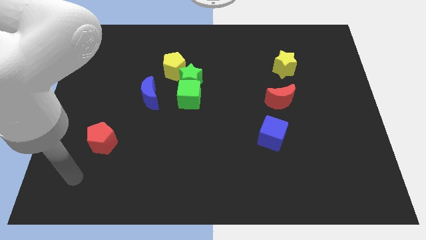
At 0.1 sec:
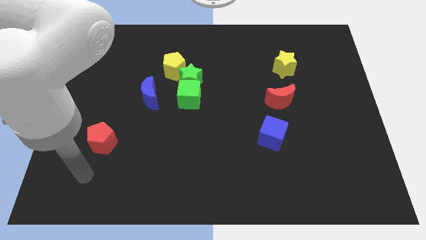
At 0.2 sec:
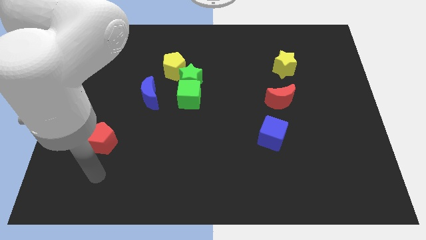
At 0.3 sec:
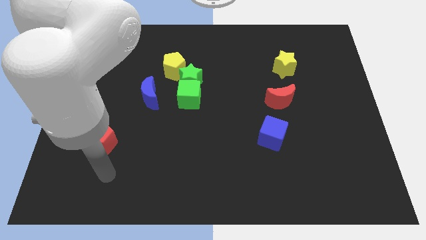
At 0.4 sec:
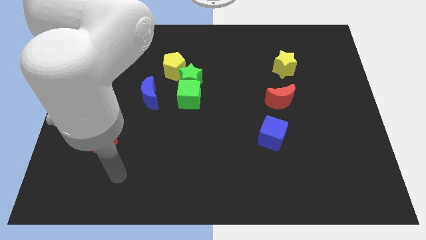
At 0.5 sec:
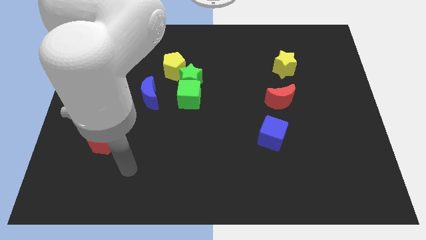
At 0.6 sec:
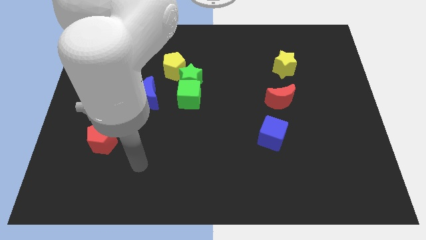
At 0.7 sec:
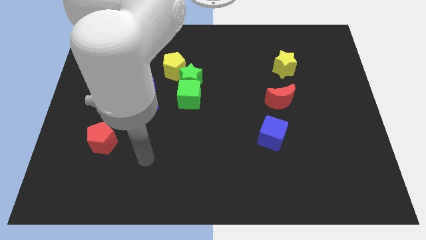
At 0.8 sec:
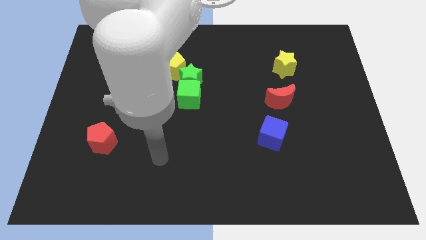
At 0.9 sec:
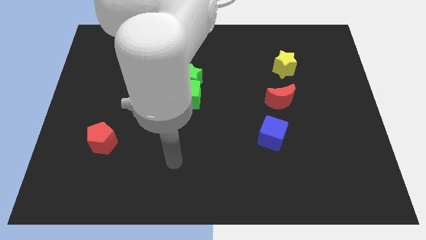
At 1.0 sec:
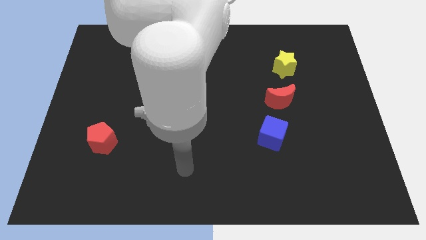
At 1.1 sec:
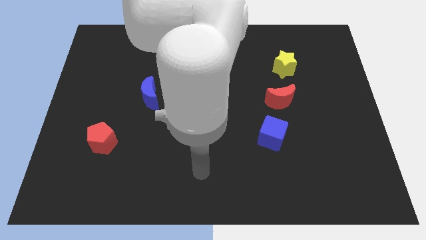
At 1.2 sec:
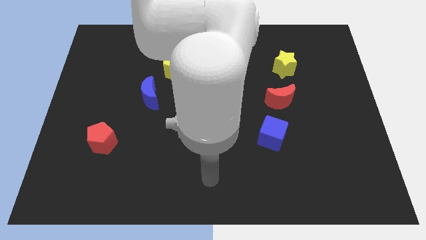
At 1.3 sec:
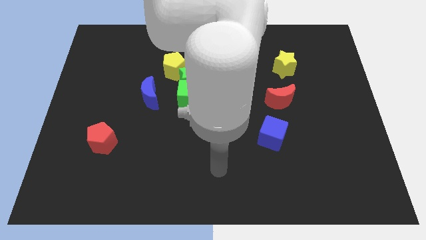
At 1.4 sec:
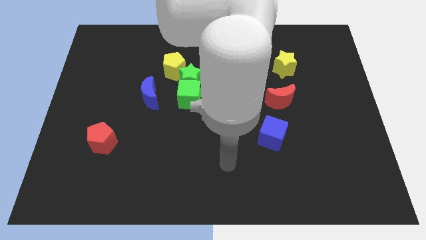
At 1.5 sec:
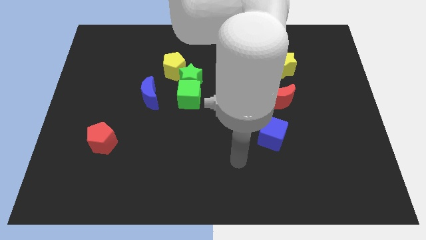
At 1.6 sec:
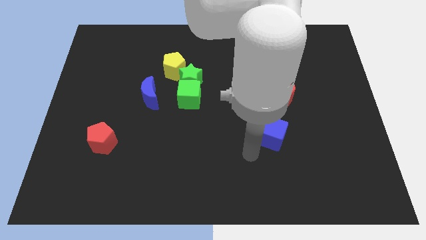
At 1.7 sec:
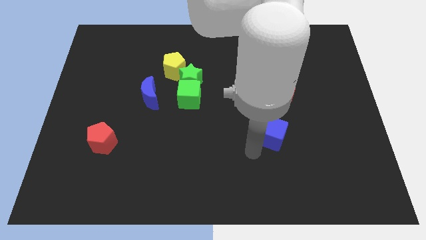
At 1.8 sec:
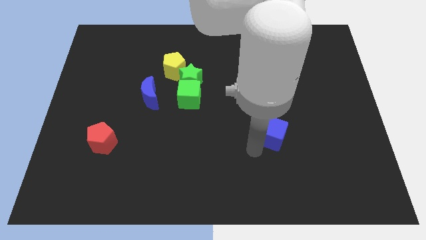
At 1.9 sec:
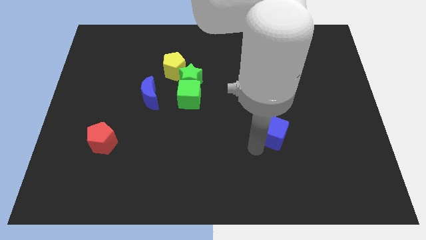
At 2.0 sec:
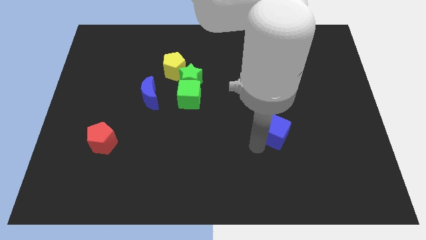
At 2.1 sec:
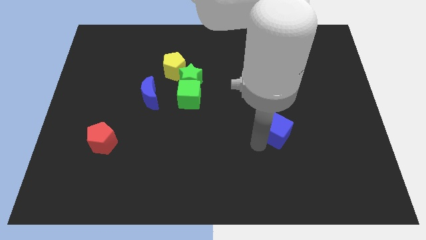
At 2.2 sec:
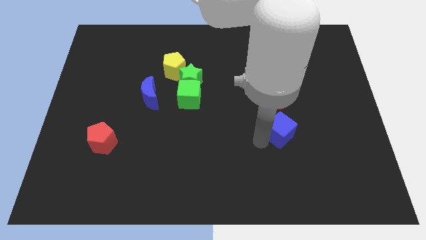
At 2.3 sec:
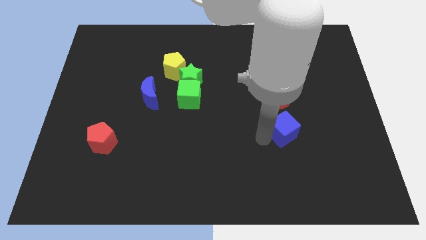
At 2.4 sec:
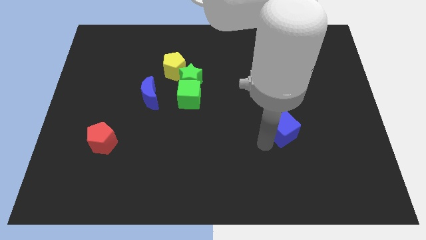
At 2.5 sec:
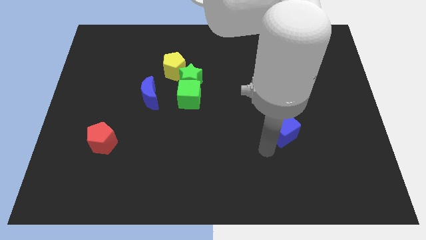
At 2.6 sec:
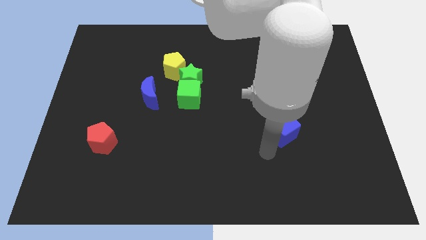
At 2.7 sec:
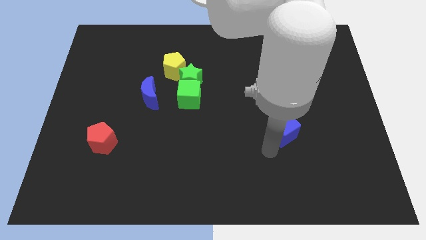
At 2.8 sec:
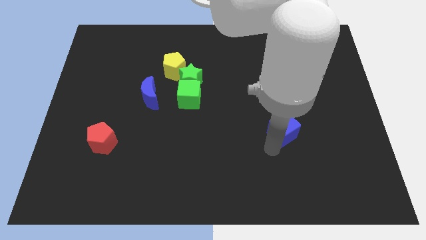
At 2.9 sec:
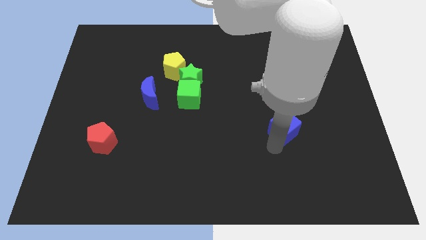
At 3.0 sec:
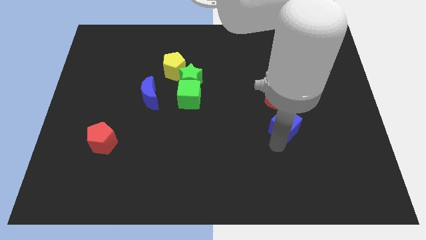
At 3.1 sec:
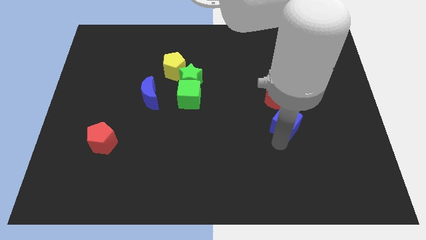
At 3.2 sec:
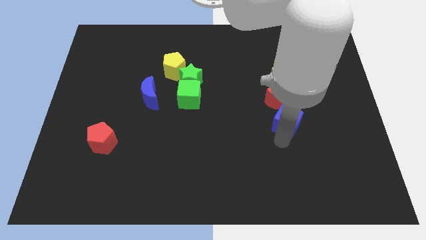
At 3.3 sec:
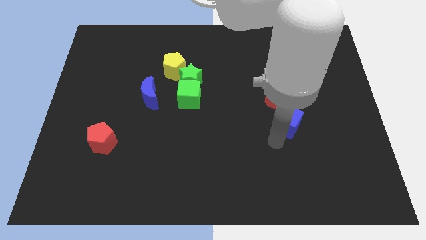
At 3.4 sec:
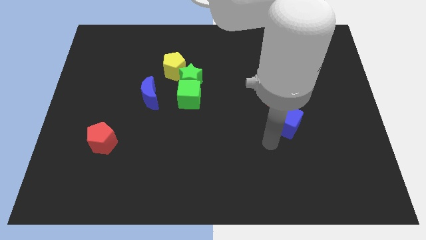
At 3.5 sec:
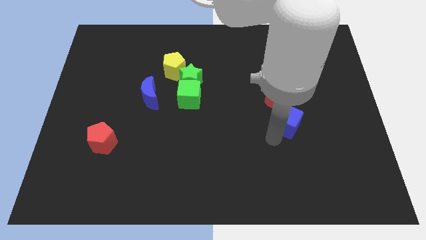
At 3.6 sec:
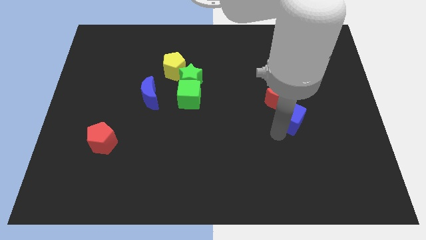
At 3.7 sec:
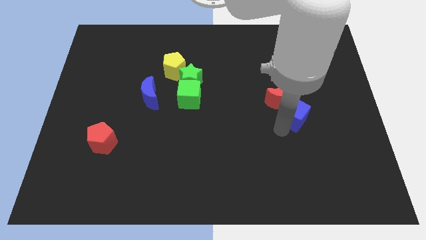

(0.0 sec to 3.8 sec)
push the blue cube diagonally upwards and right a little bit

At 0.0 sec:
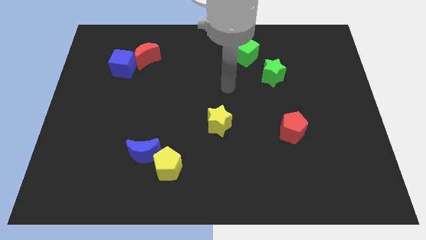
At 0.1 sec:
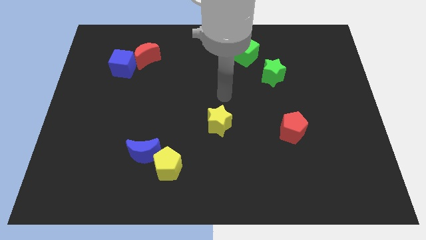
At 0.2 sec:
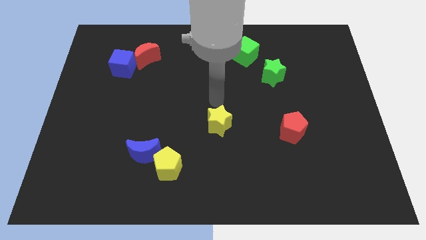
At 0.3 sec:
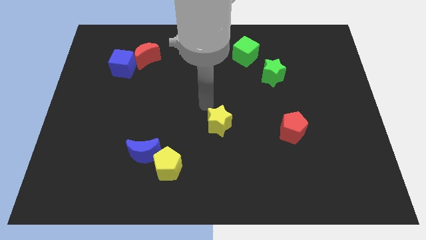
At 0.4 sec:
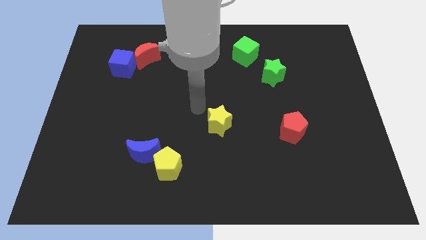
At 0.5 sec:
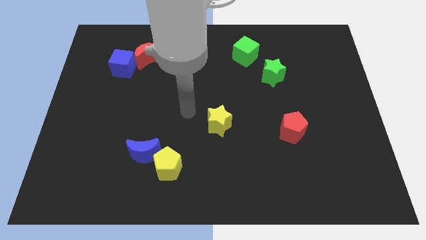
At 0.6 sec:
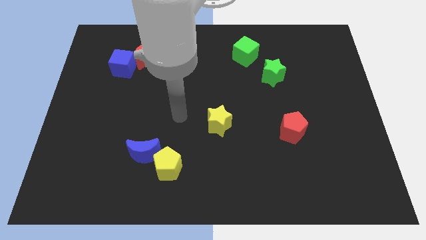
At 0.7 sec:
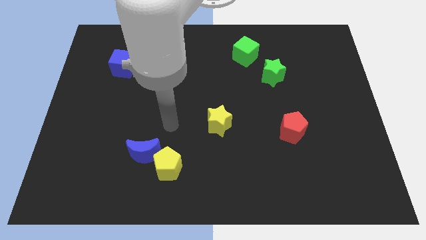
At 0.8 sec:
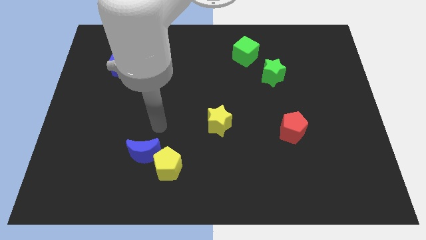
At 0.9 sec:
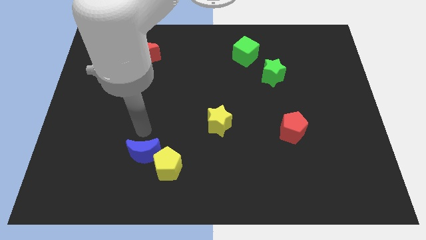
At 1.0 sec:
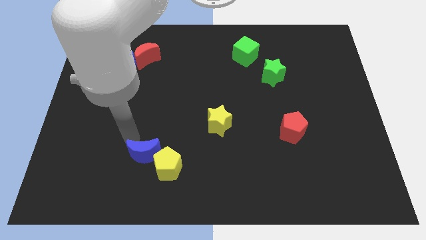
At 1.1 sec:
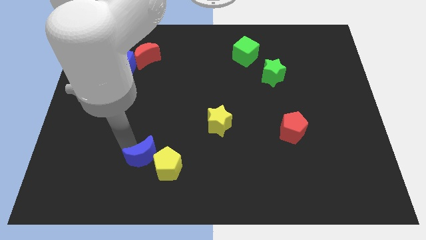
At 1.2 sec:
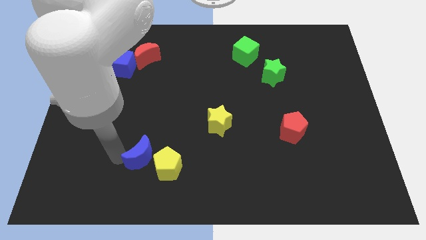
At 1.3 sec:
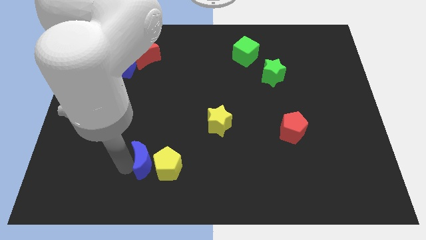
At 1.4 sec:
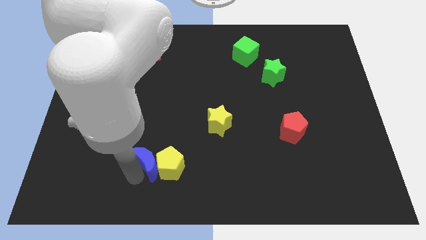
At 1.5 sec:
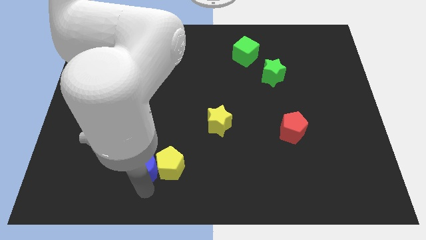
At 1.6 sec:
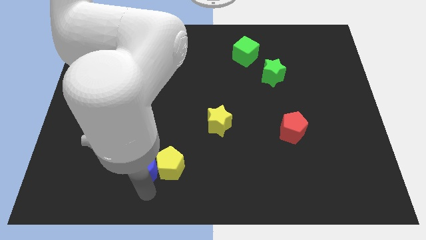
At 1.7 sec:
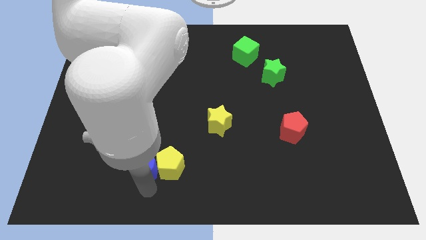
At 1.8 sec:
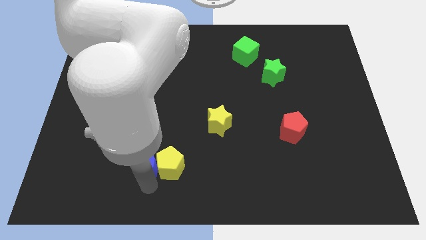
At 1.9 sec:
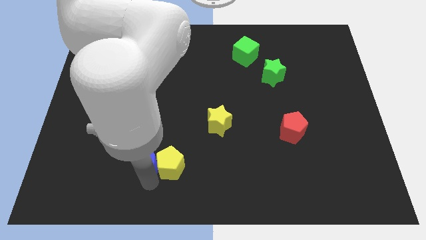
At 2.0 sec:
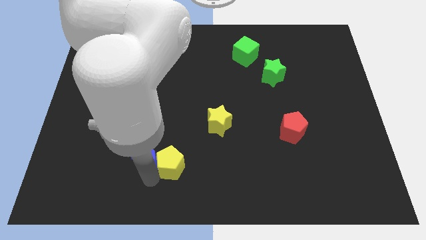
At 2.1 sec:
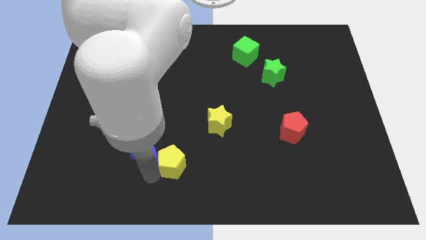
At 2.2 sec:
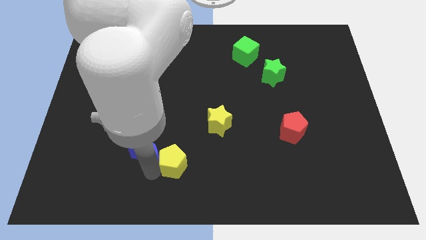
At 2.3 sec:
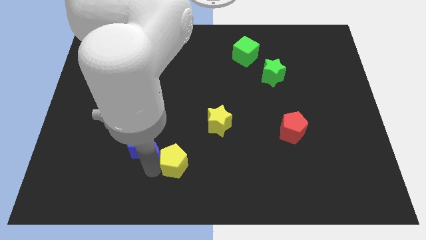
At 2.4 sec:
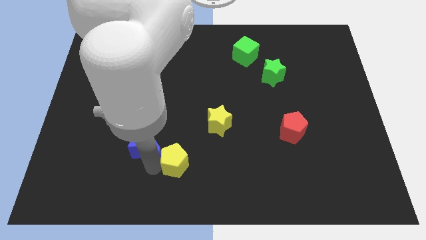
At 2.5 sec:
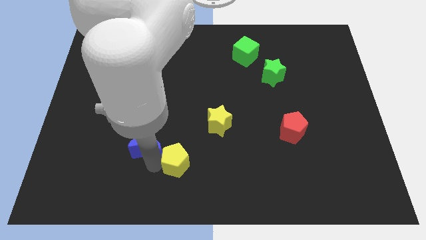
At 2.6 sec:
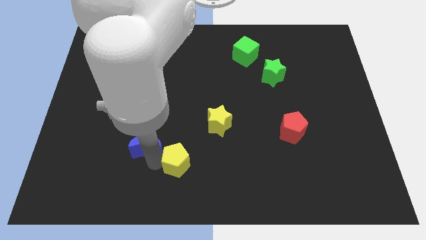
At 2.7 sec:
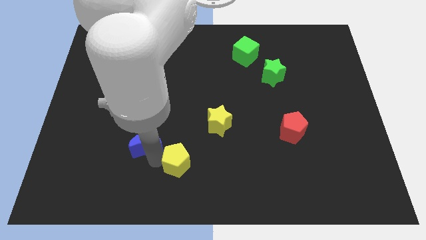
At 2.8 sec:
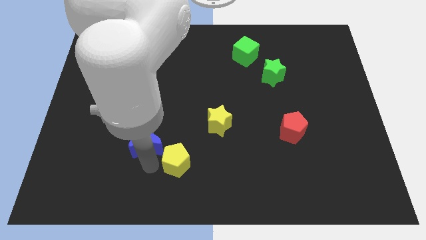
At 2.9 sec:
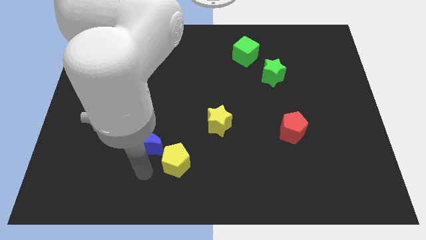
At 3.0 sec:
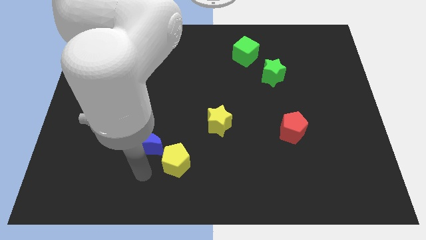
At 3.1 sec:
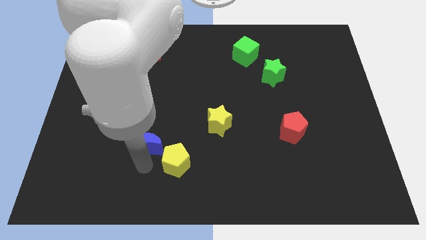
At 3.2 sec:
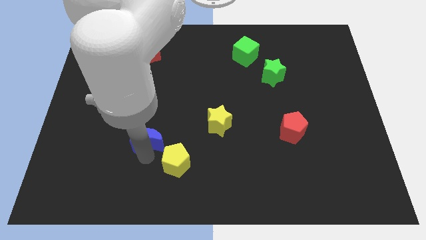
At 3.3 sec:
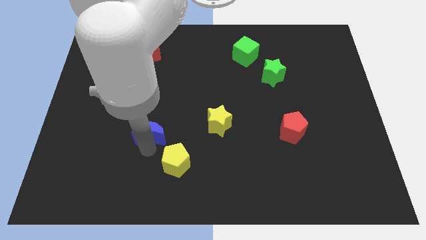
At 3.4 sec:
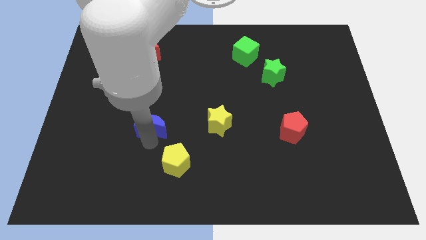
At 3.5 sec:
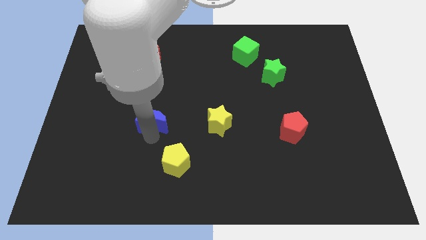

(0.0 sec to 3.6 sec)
push the blue moon a bit up

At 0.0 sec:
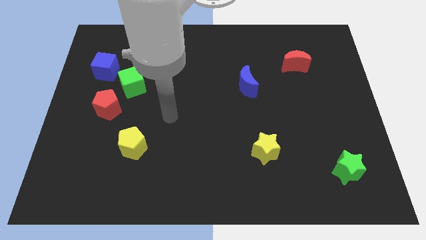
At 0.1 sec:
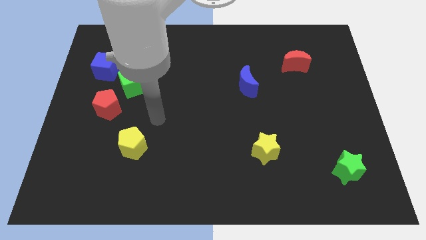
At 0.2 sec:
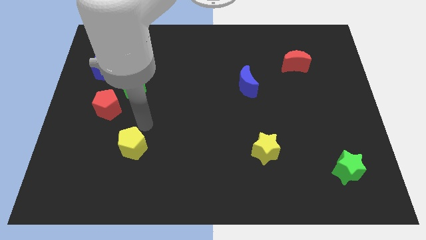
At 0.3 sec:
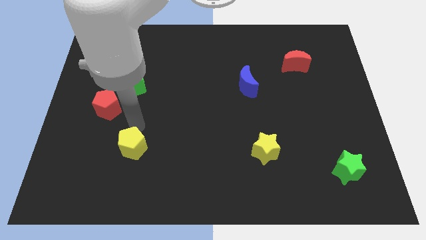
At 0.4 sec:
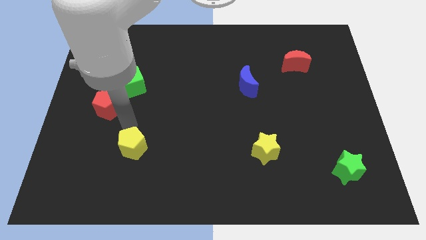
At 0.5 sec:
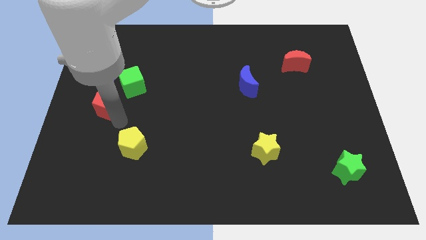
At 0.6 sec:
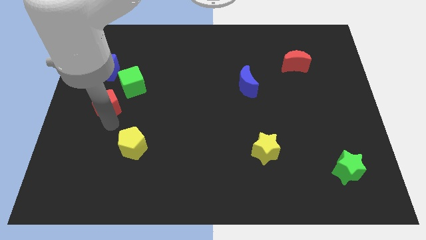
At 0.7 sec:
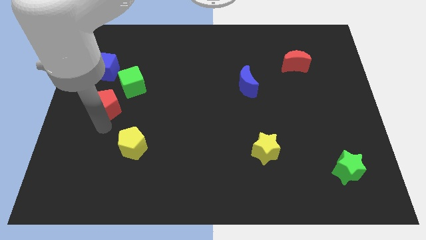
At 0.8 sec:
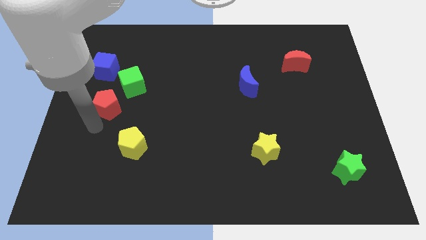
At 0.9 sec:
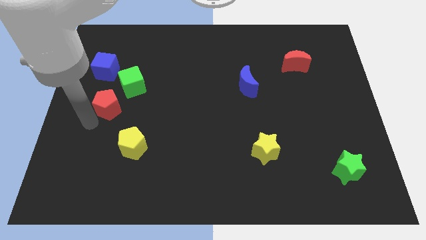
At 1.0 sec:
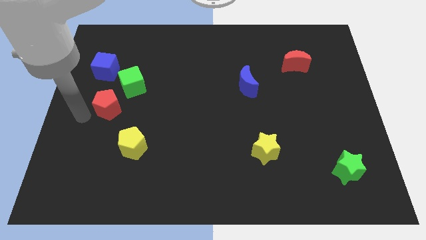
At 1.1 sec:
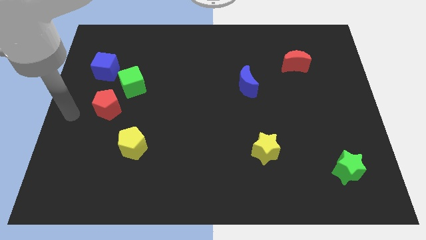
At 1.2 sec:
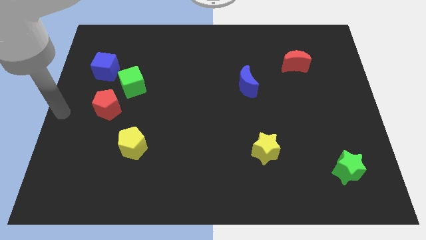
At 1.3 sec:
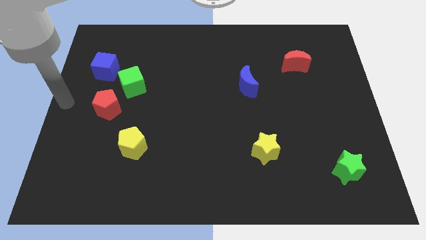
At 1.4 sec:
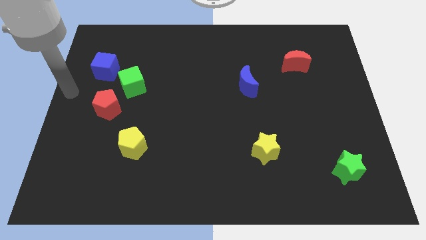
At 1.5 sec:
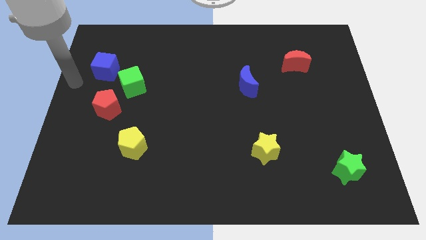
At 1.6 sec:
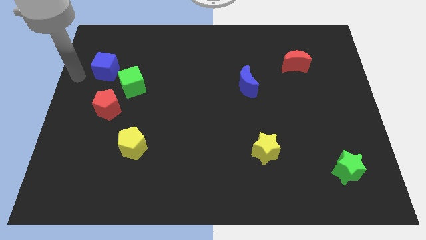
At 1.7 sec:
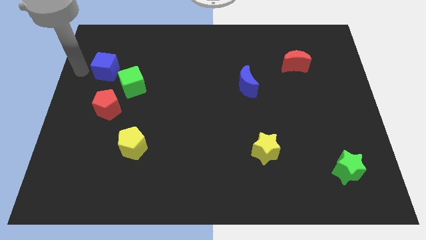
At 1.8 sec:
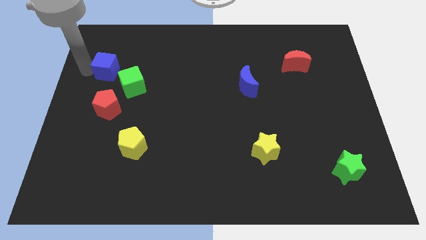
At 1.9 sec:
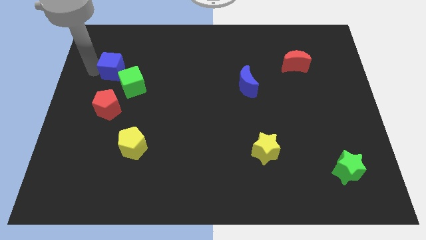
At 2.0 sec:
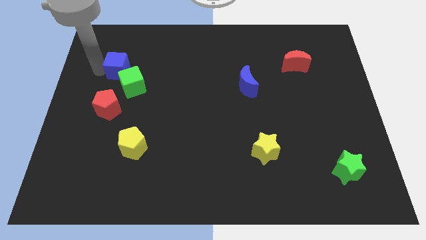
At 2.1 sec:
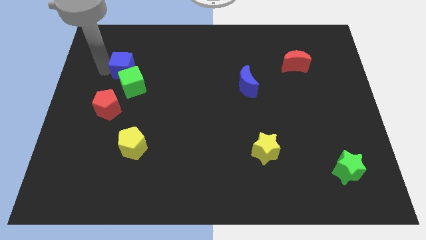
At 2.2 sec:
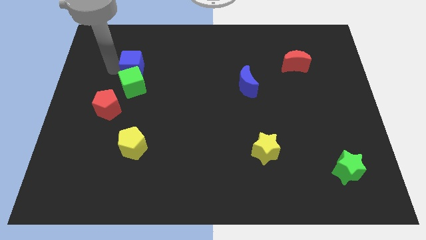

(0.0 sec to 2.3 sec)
push the blue cube slightly right
